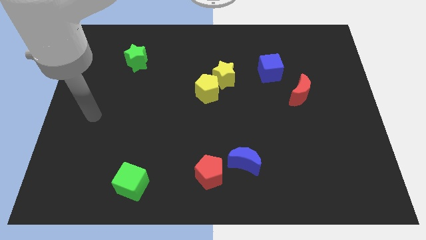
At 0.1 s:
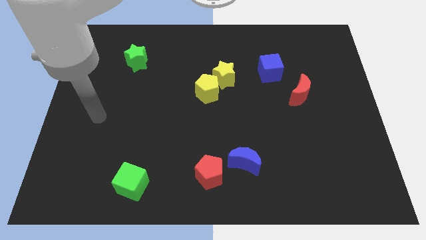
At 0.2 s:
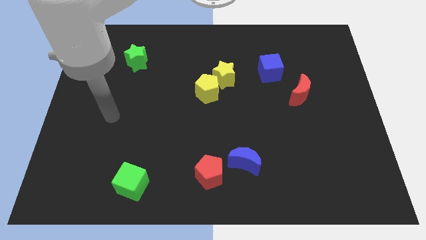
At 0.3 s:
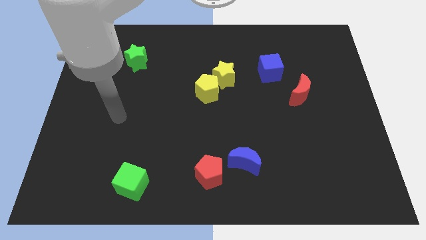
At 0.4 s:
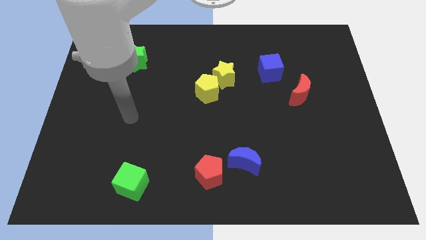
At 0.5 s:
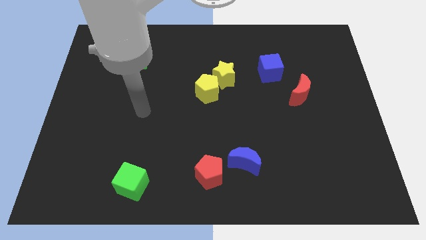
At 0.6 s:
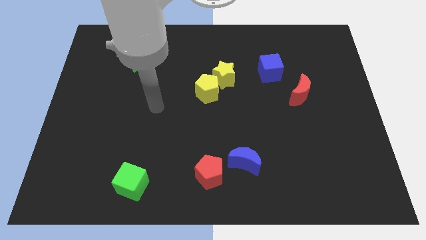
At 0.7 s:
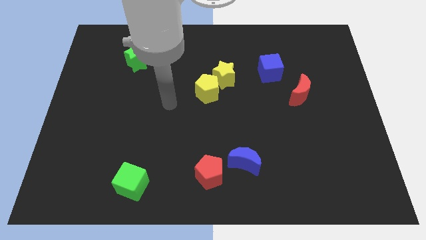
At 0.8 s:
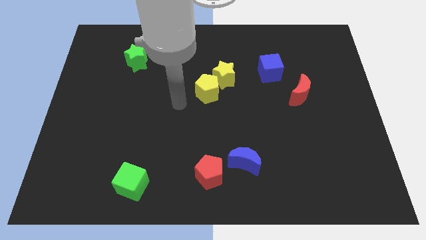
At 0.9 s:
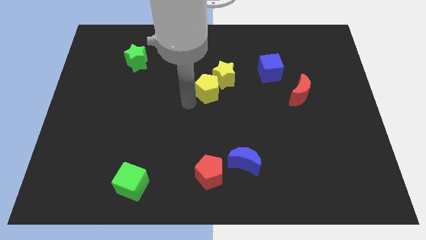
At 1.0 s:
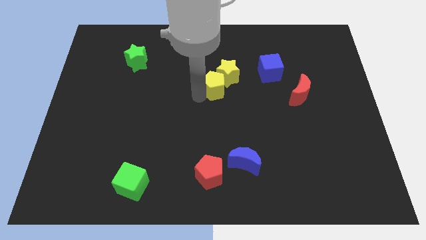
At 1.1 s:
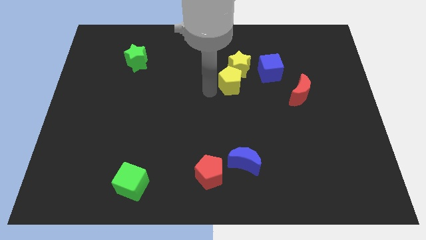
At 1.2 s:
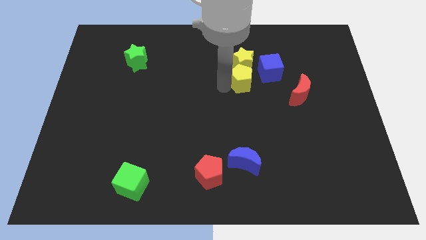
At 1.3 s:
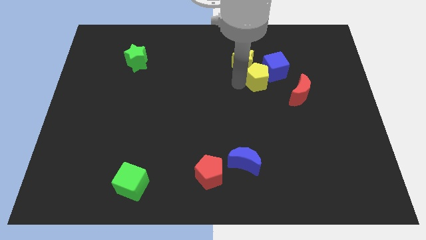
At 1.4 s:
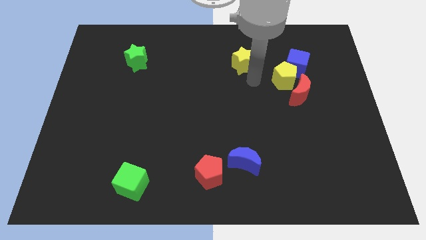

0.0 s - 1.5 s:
pull the yellow star apart from the yellow pentagon

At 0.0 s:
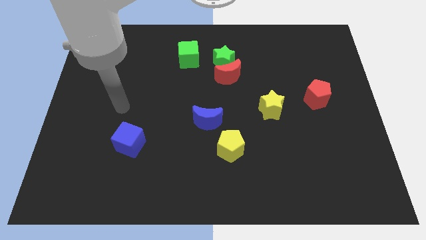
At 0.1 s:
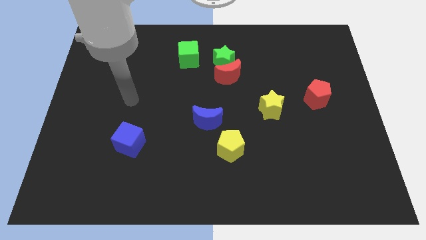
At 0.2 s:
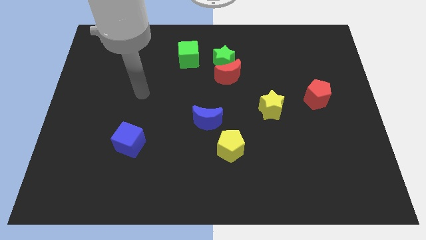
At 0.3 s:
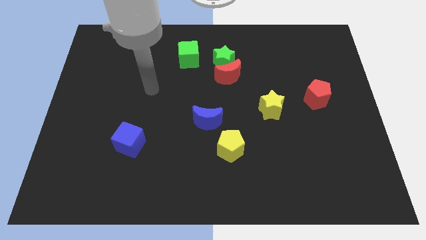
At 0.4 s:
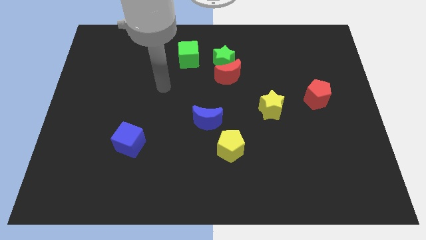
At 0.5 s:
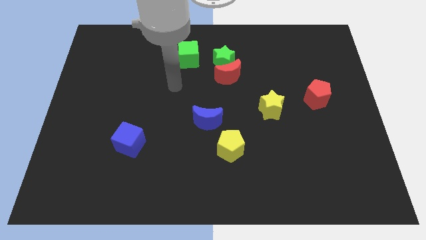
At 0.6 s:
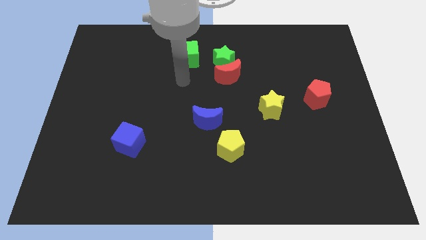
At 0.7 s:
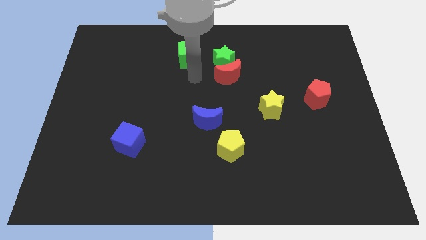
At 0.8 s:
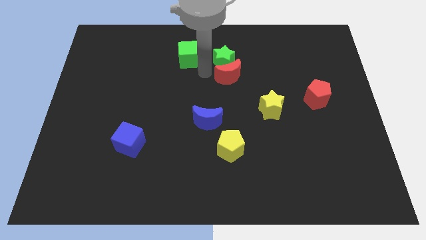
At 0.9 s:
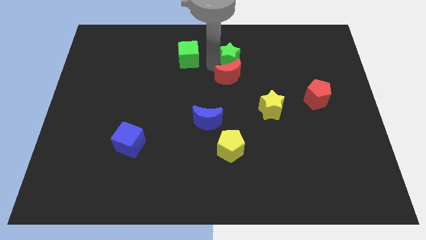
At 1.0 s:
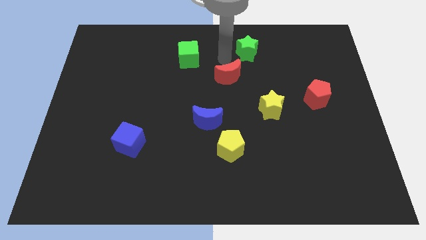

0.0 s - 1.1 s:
separate the red moon from the green star

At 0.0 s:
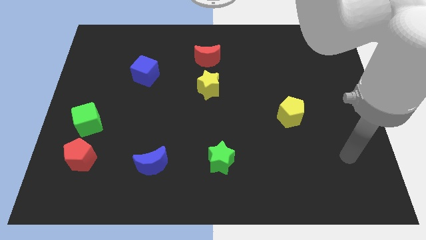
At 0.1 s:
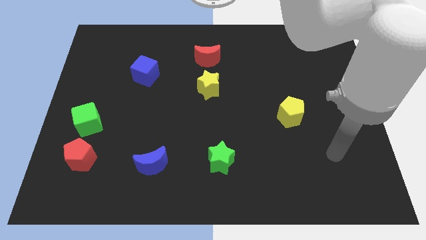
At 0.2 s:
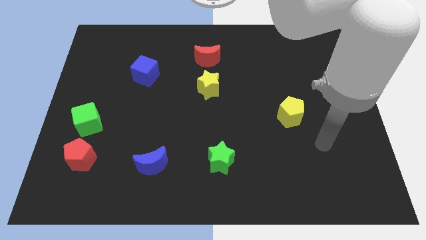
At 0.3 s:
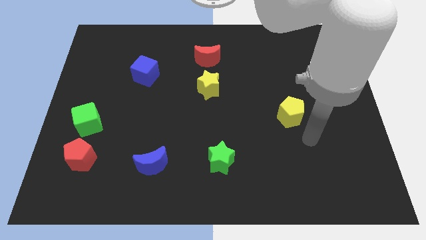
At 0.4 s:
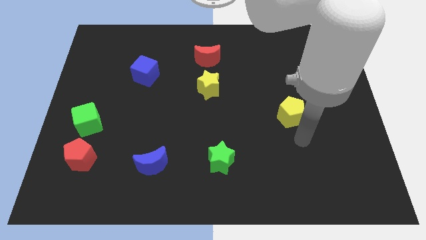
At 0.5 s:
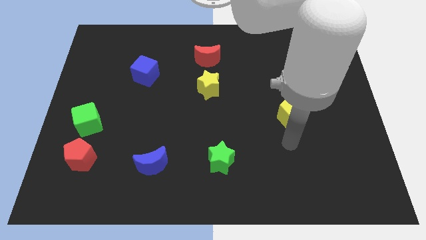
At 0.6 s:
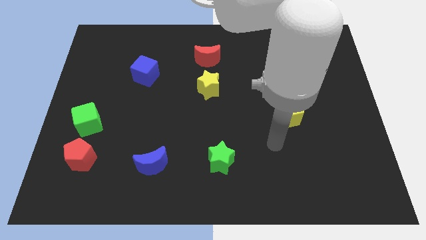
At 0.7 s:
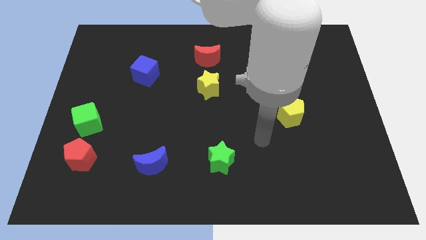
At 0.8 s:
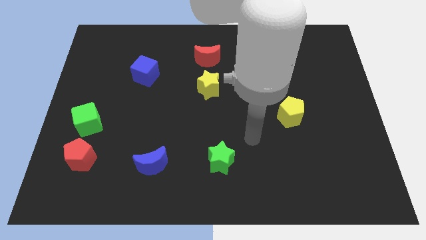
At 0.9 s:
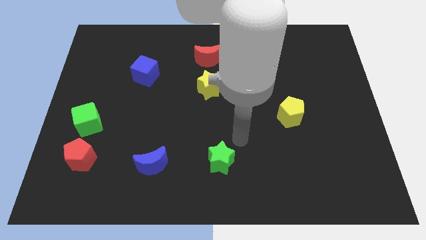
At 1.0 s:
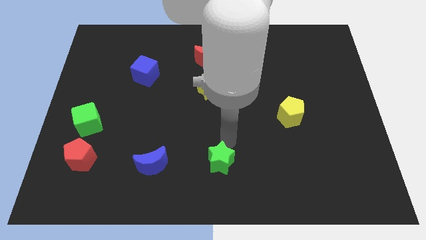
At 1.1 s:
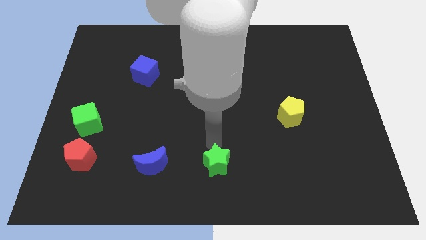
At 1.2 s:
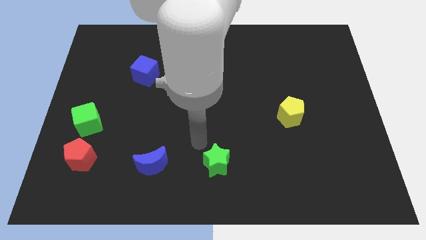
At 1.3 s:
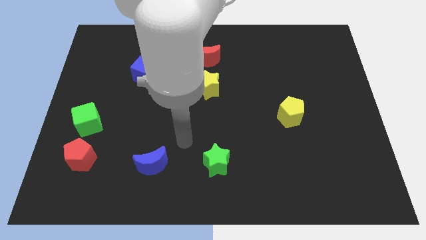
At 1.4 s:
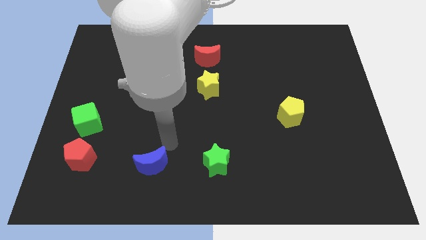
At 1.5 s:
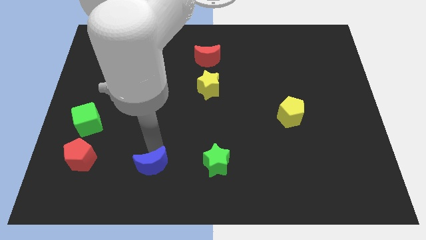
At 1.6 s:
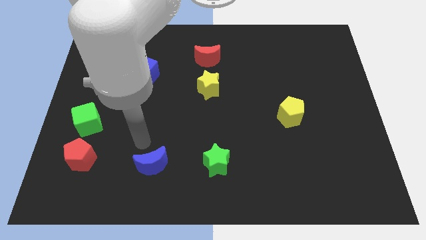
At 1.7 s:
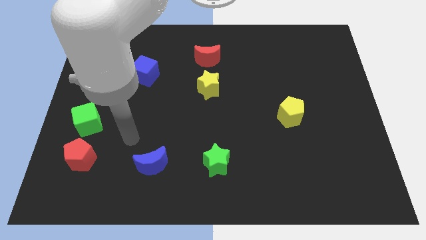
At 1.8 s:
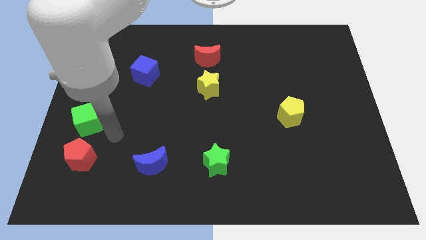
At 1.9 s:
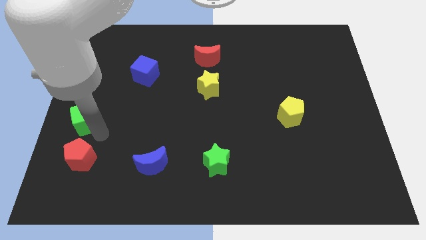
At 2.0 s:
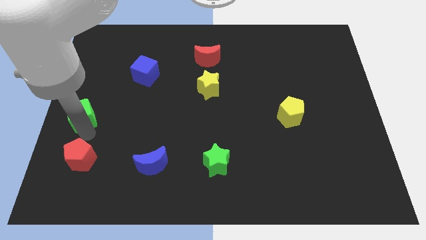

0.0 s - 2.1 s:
move the red pentagon away from the green cube

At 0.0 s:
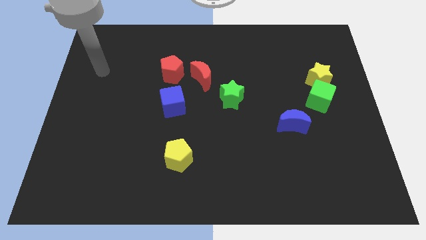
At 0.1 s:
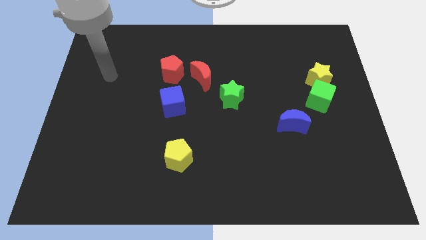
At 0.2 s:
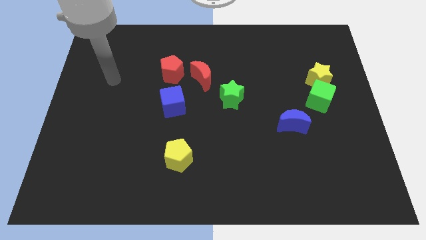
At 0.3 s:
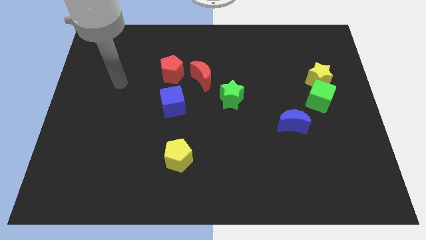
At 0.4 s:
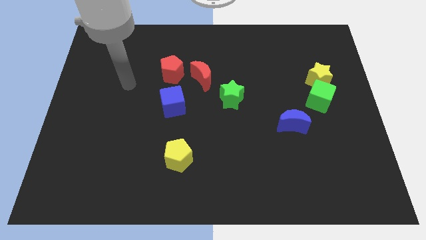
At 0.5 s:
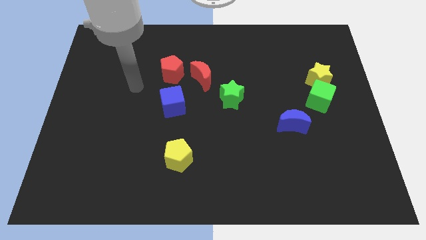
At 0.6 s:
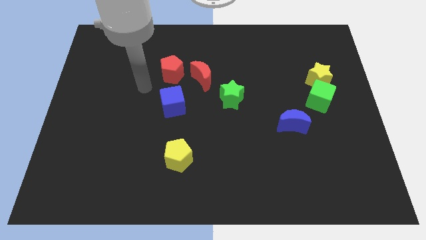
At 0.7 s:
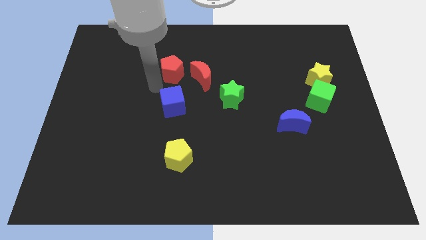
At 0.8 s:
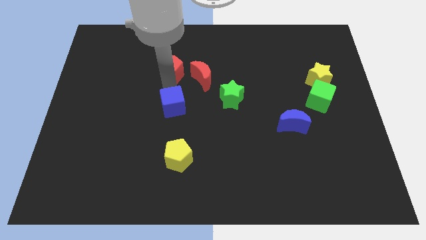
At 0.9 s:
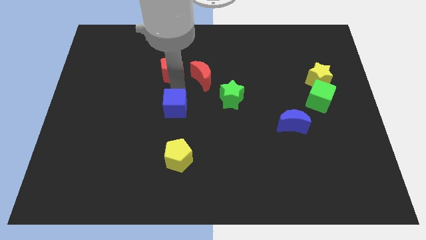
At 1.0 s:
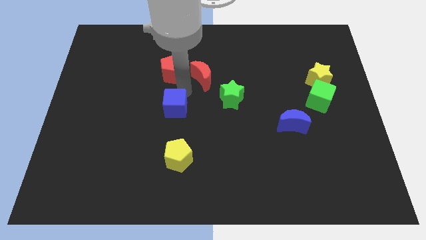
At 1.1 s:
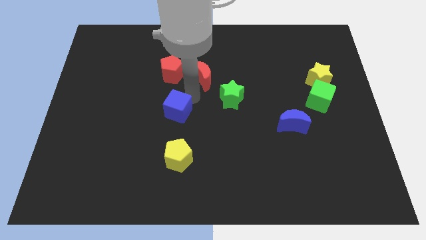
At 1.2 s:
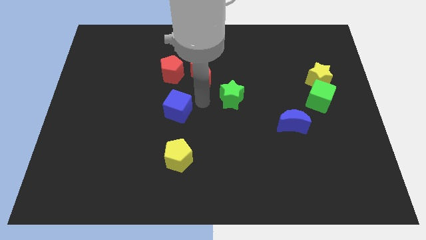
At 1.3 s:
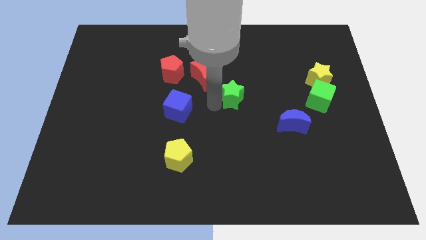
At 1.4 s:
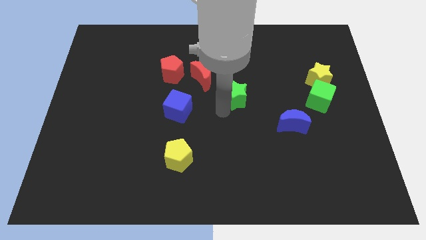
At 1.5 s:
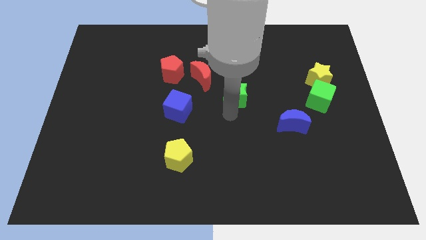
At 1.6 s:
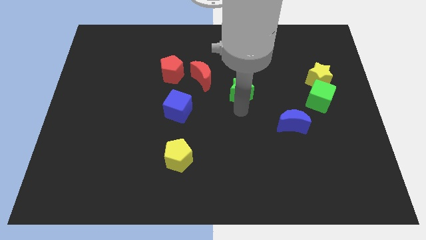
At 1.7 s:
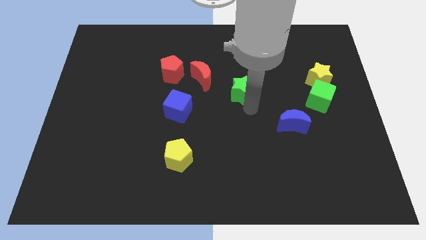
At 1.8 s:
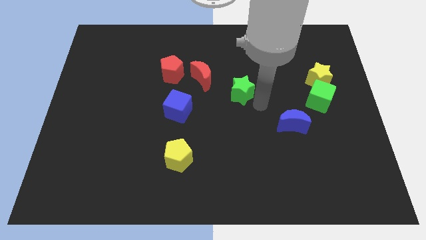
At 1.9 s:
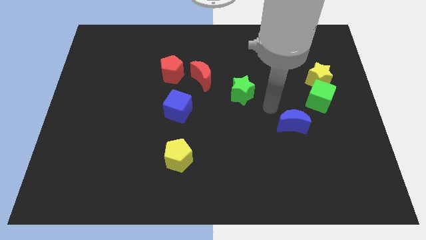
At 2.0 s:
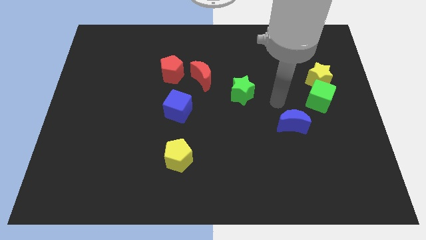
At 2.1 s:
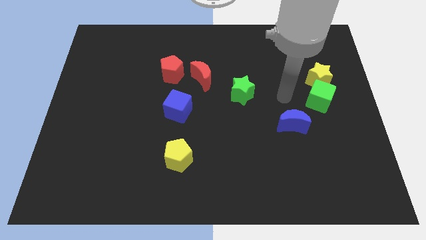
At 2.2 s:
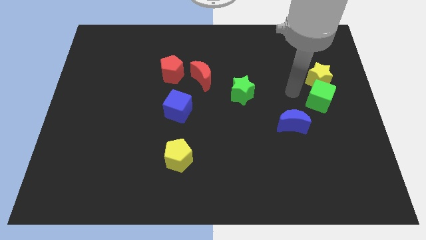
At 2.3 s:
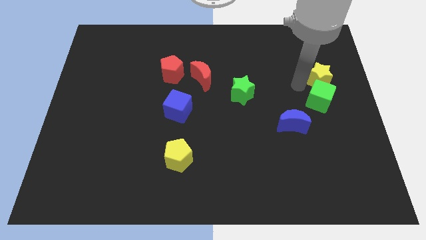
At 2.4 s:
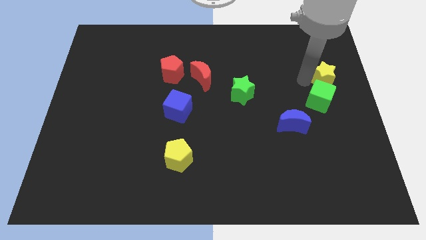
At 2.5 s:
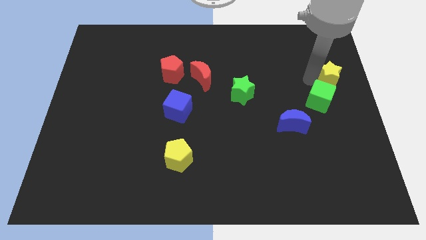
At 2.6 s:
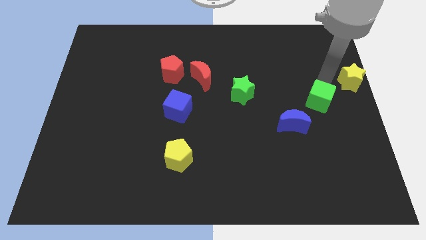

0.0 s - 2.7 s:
move the green cube away from the yellow star

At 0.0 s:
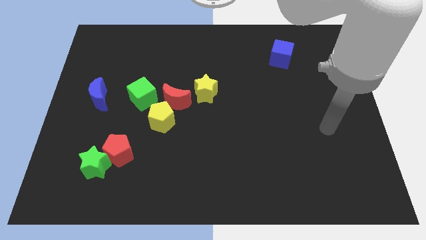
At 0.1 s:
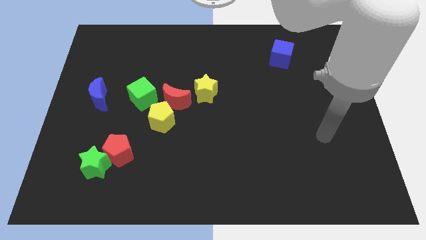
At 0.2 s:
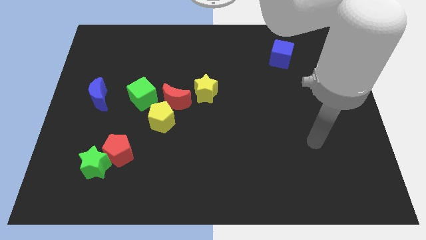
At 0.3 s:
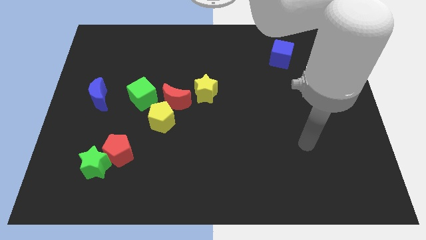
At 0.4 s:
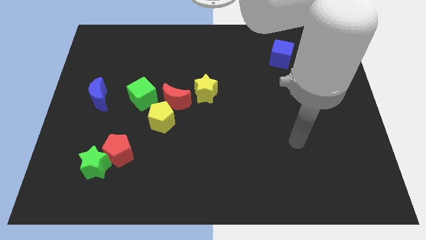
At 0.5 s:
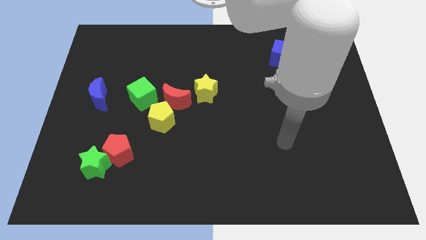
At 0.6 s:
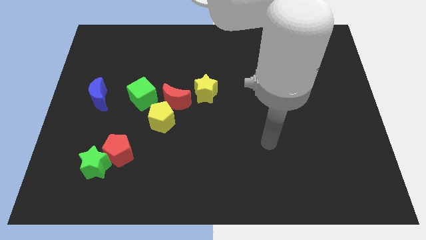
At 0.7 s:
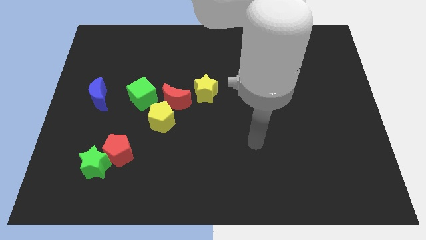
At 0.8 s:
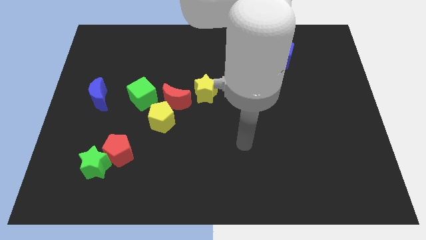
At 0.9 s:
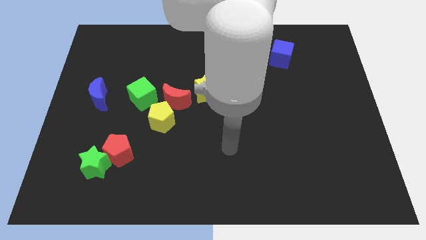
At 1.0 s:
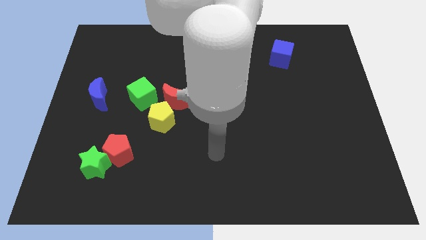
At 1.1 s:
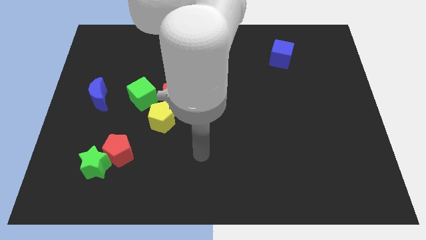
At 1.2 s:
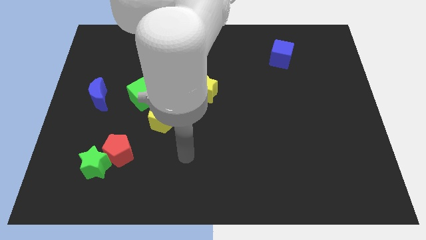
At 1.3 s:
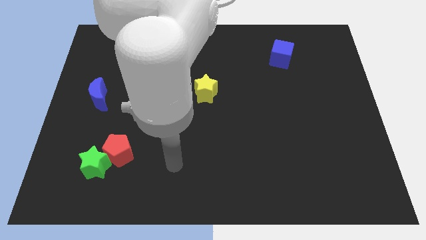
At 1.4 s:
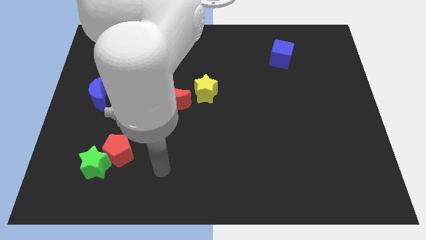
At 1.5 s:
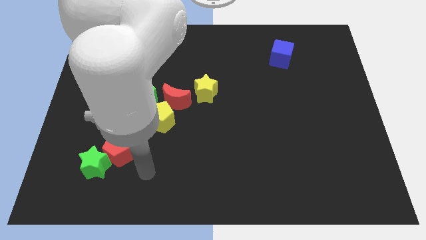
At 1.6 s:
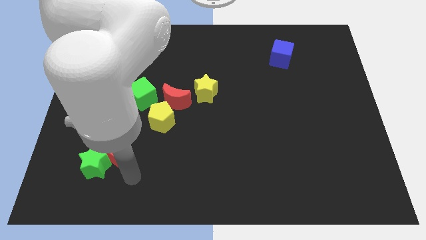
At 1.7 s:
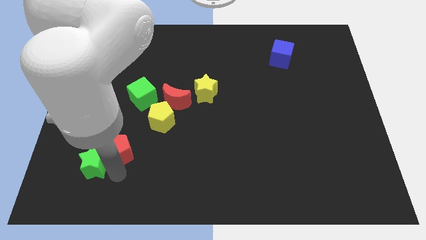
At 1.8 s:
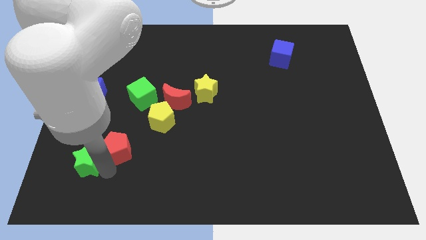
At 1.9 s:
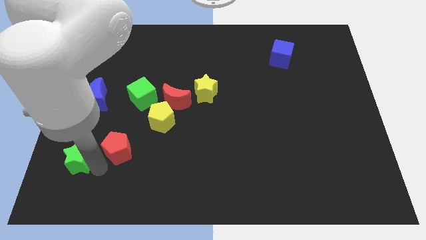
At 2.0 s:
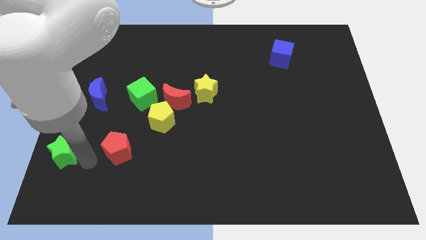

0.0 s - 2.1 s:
move the red pentagon away from the green star
